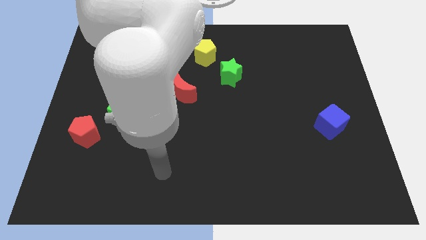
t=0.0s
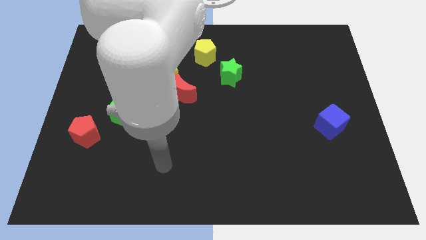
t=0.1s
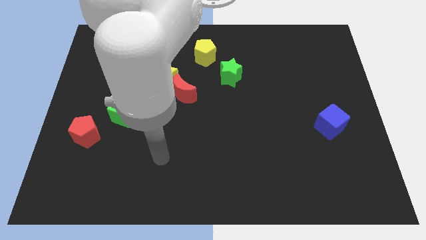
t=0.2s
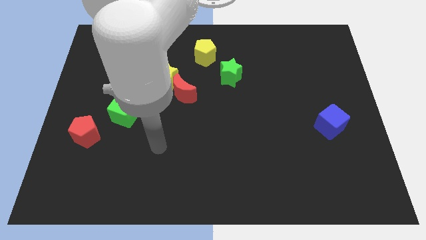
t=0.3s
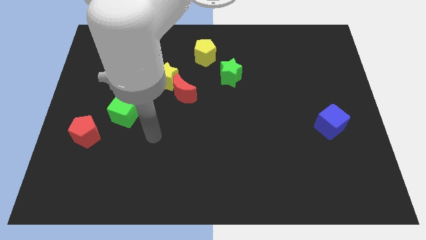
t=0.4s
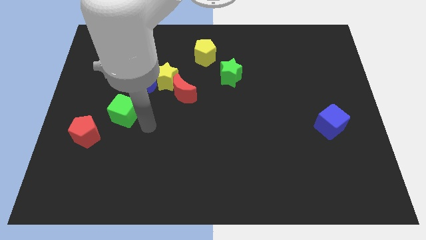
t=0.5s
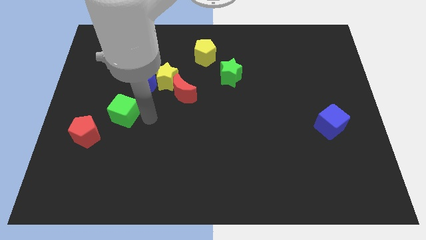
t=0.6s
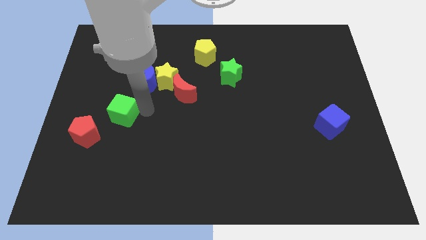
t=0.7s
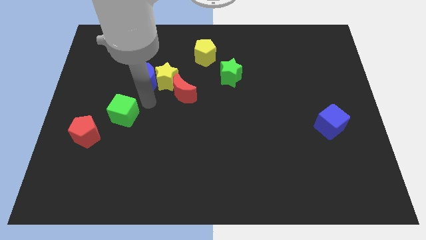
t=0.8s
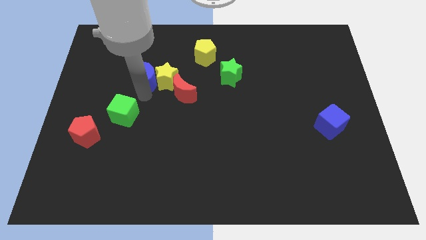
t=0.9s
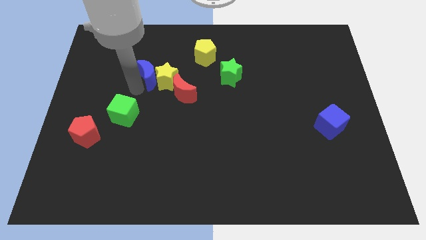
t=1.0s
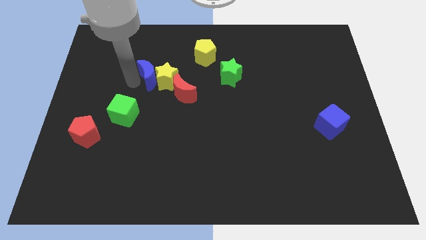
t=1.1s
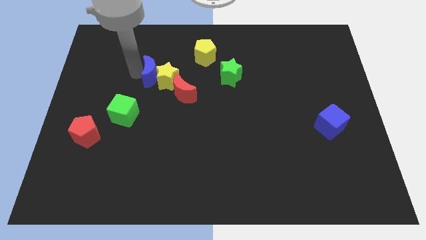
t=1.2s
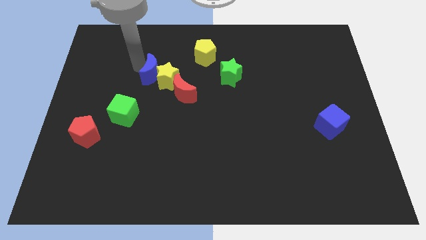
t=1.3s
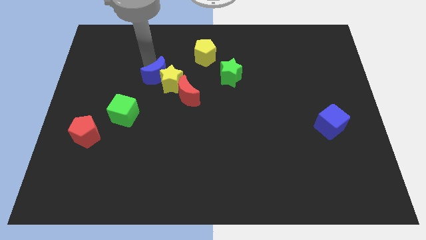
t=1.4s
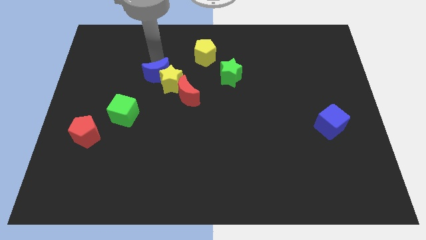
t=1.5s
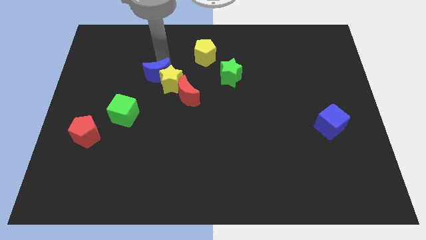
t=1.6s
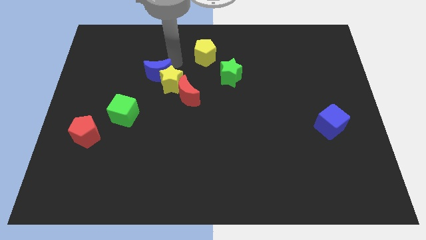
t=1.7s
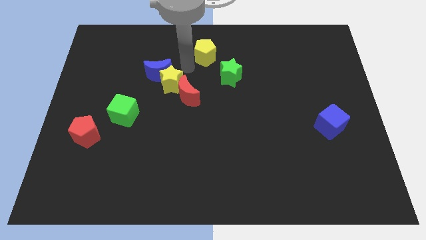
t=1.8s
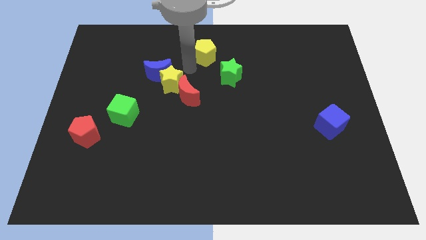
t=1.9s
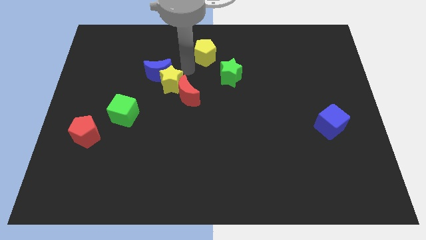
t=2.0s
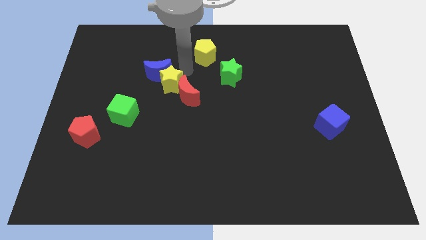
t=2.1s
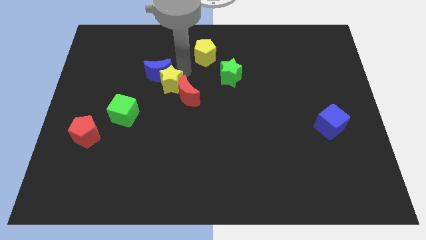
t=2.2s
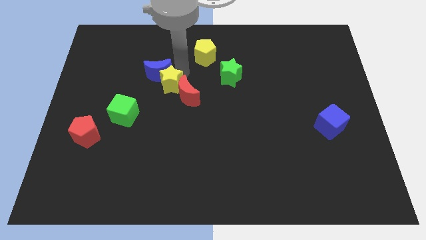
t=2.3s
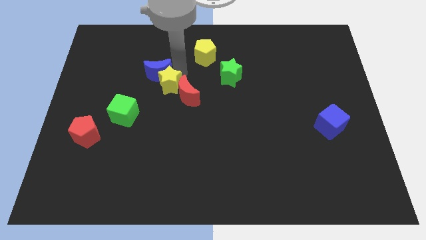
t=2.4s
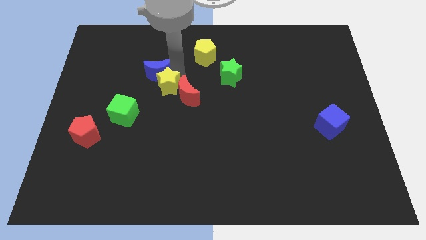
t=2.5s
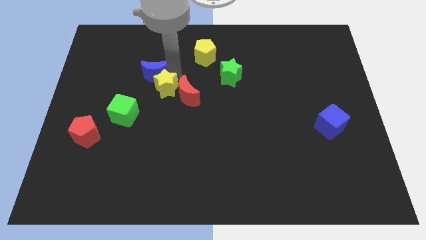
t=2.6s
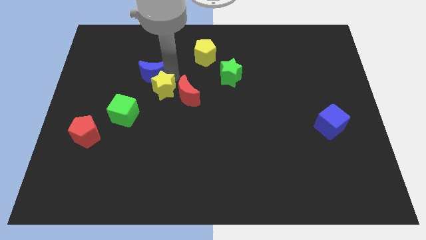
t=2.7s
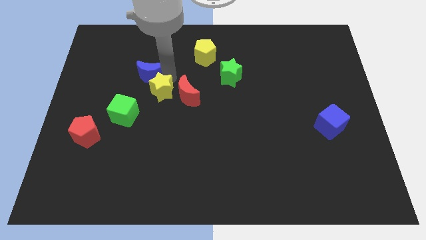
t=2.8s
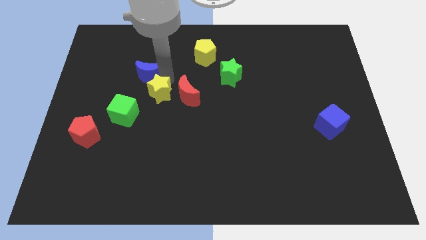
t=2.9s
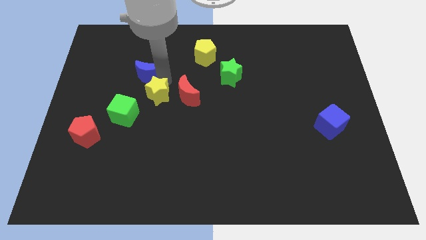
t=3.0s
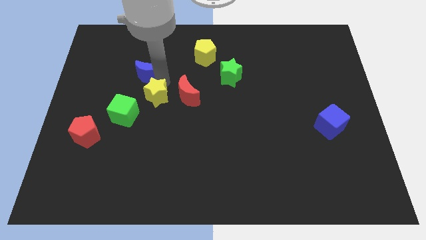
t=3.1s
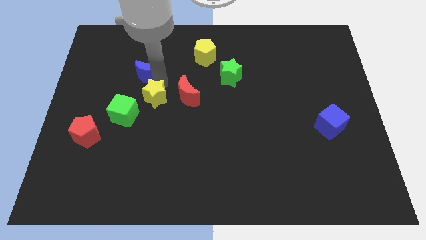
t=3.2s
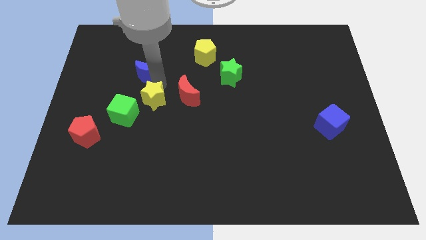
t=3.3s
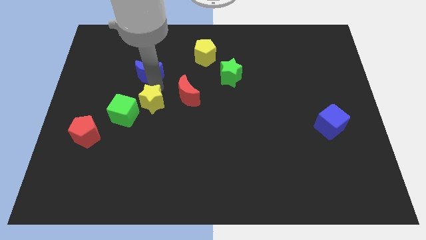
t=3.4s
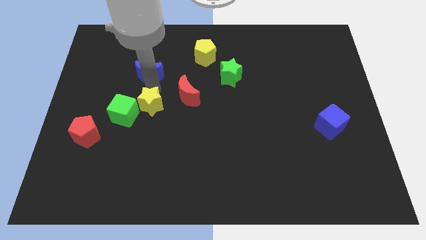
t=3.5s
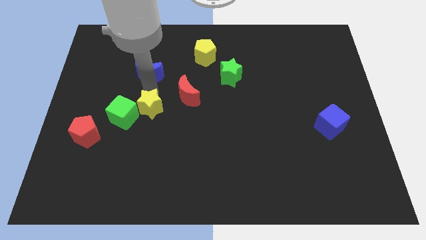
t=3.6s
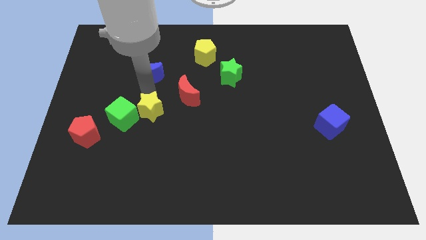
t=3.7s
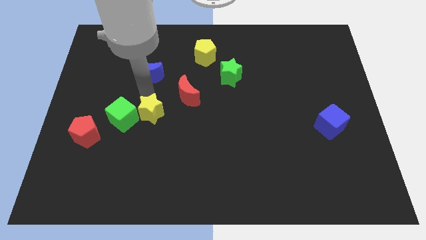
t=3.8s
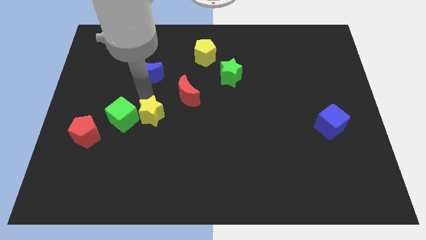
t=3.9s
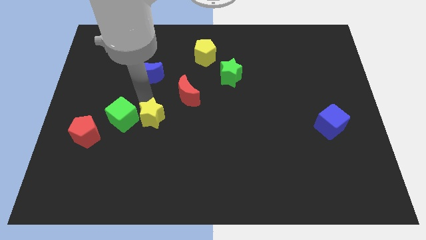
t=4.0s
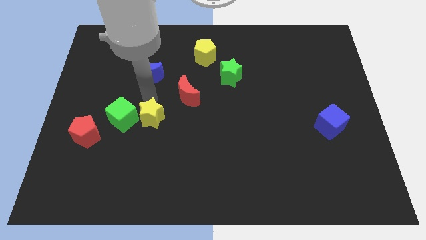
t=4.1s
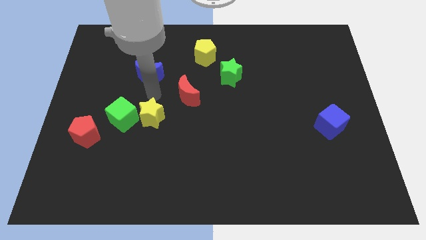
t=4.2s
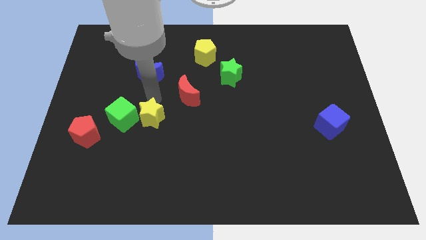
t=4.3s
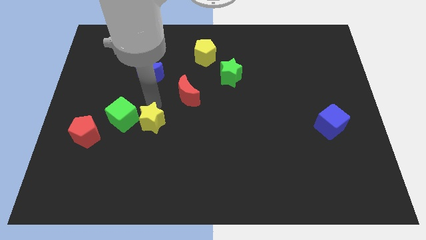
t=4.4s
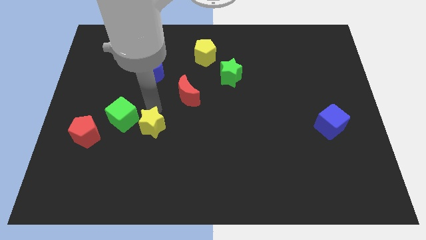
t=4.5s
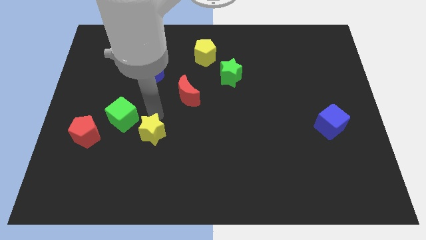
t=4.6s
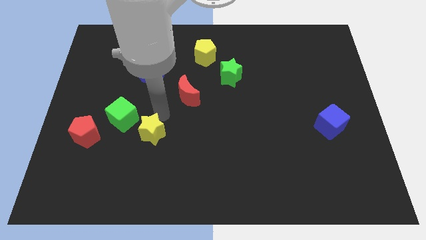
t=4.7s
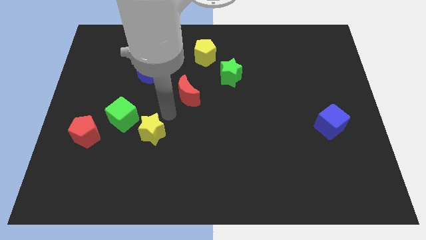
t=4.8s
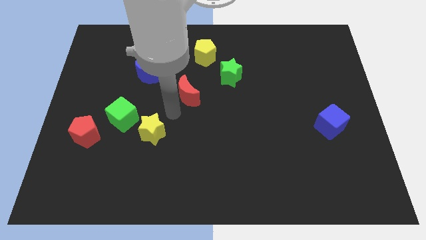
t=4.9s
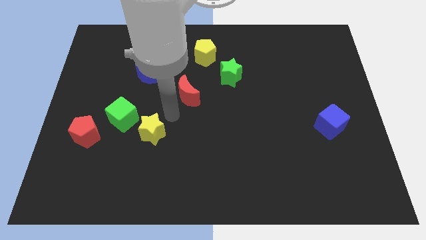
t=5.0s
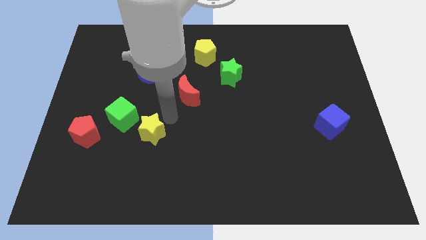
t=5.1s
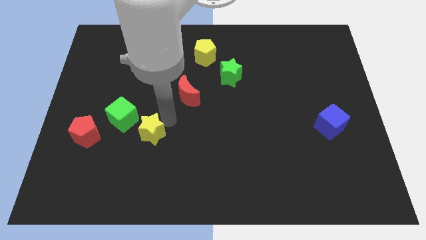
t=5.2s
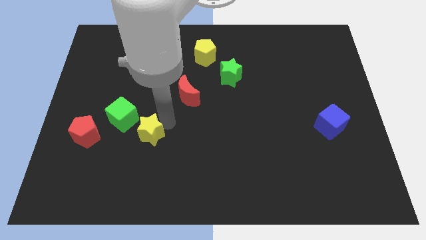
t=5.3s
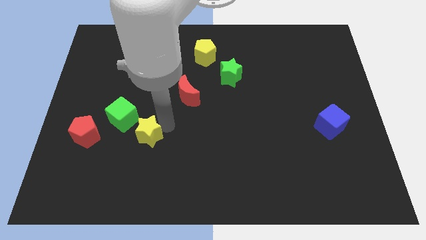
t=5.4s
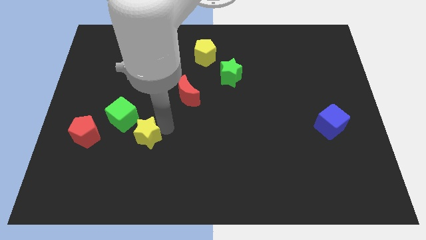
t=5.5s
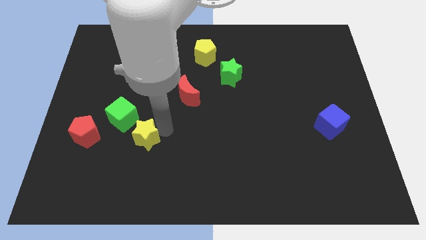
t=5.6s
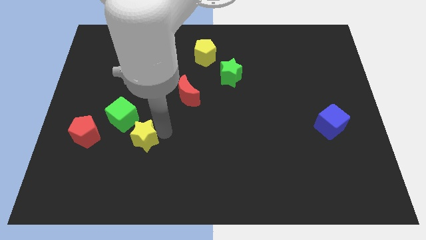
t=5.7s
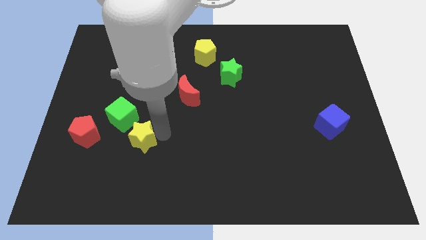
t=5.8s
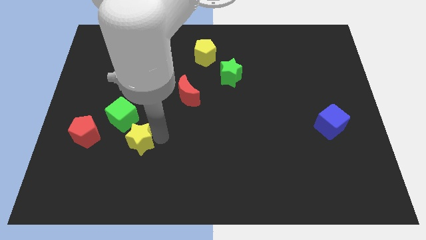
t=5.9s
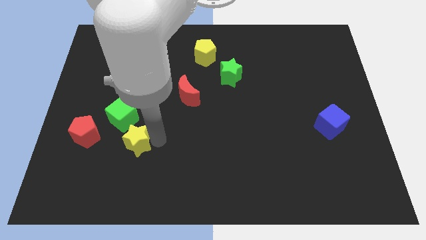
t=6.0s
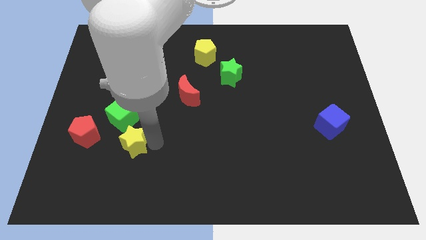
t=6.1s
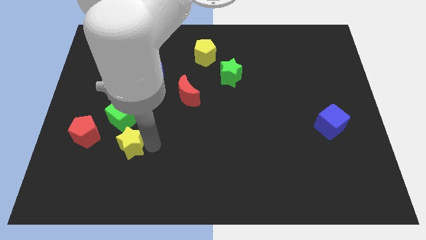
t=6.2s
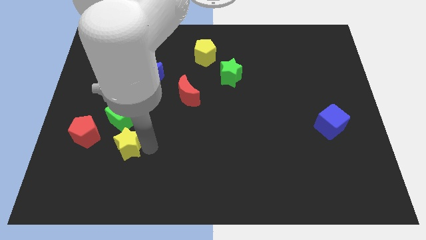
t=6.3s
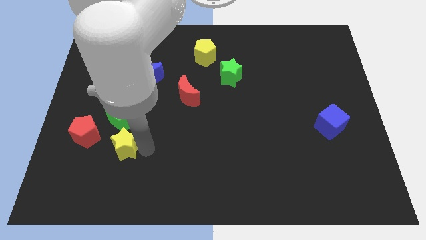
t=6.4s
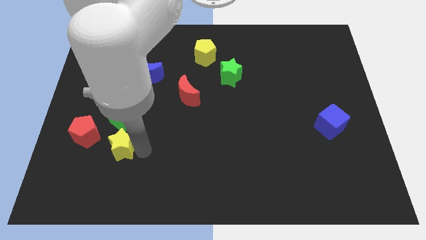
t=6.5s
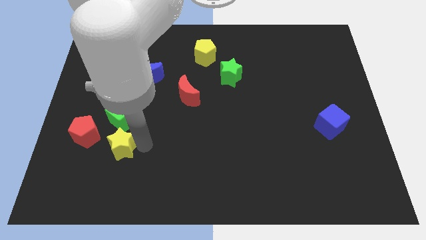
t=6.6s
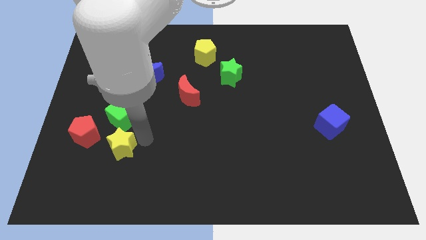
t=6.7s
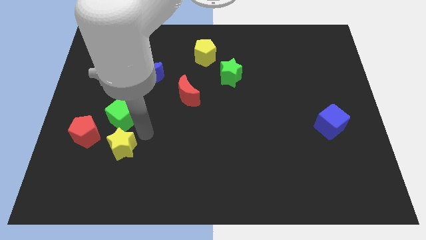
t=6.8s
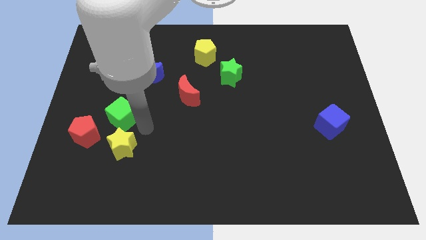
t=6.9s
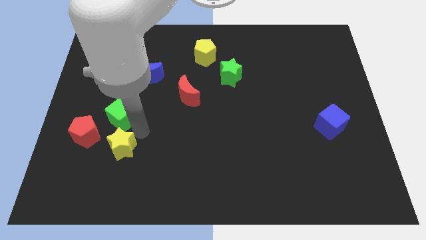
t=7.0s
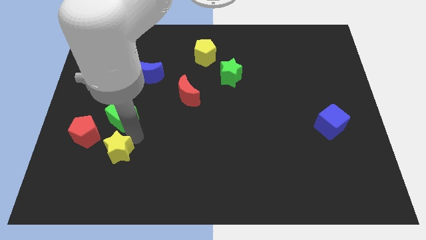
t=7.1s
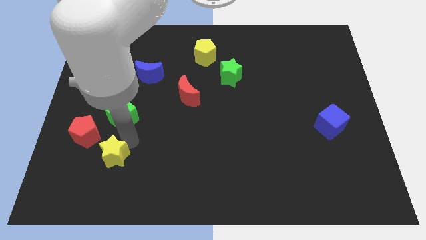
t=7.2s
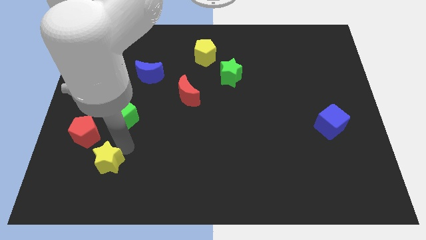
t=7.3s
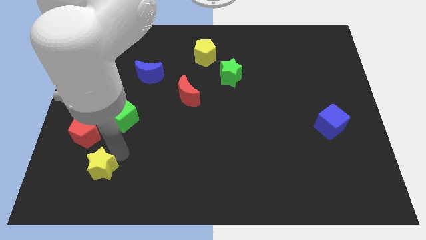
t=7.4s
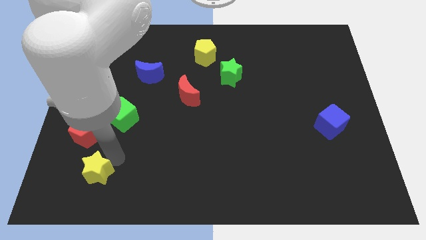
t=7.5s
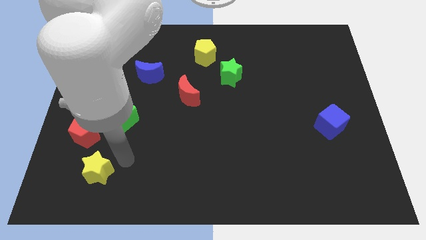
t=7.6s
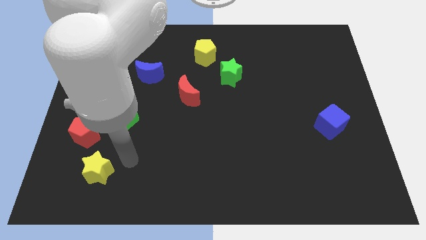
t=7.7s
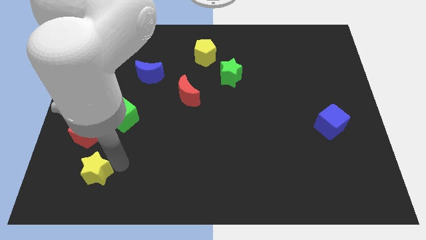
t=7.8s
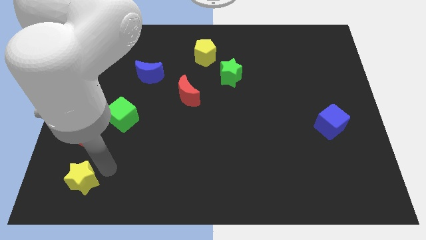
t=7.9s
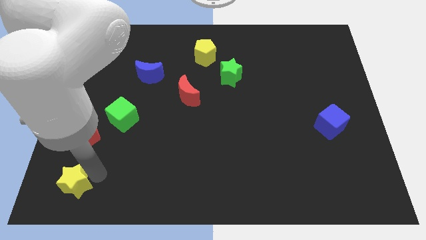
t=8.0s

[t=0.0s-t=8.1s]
slide the yellow star to the bottom left
